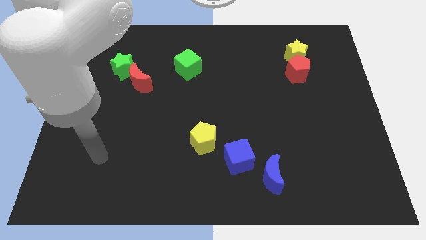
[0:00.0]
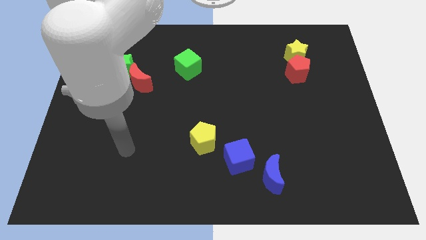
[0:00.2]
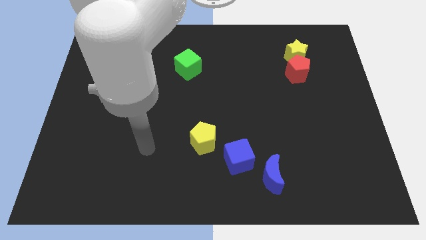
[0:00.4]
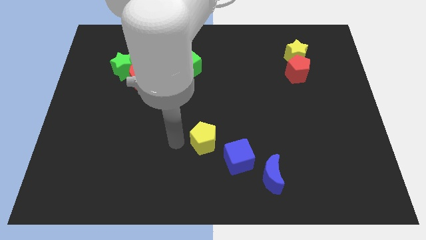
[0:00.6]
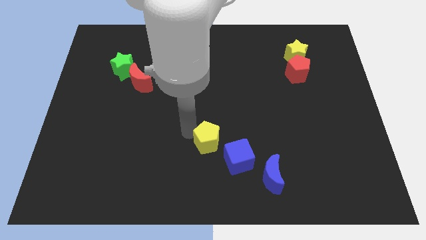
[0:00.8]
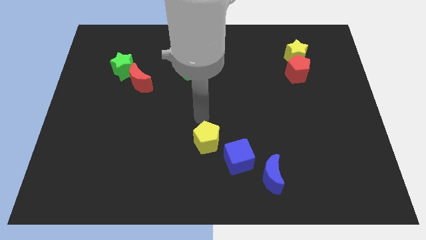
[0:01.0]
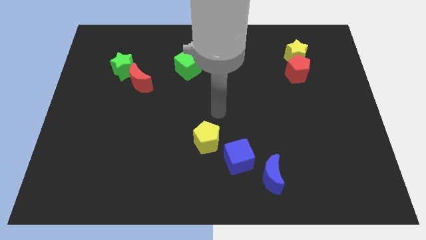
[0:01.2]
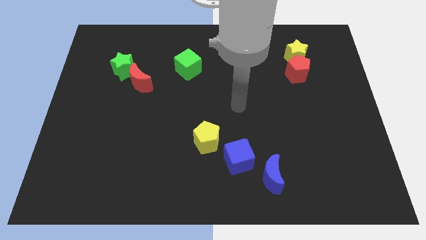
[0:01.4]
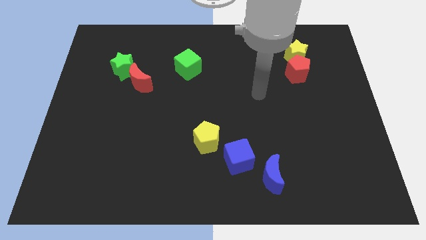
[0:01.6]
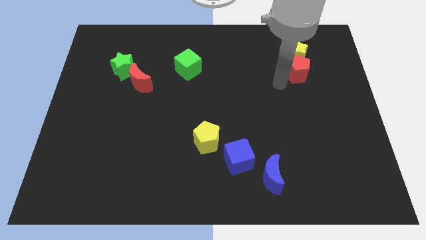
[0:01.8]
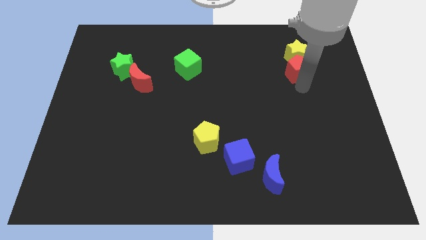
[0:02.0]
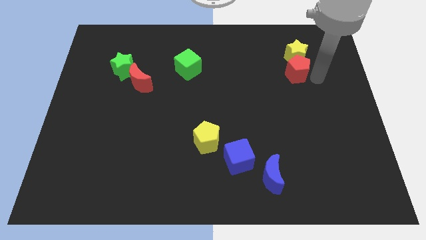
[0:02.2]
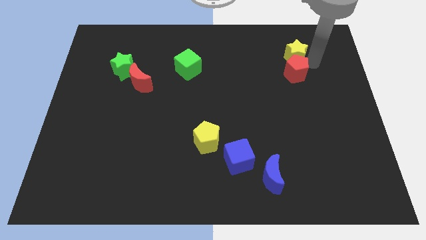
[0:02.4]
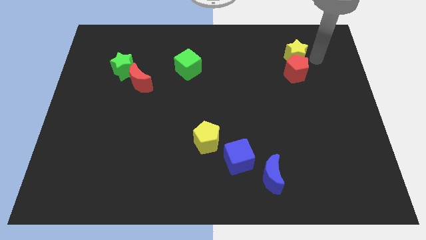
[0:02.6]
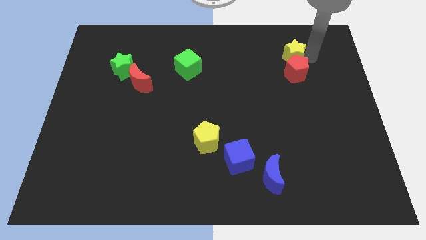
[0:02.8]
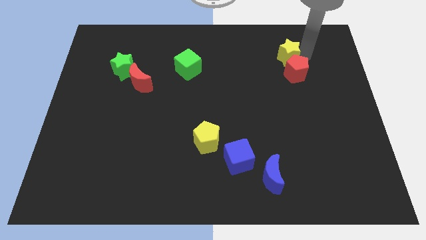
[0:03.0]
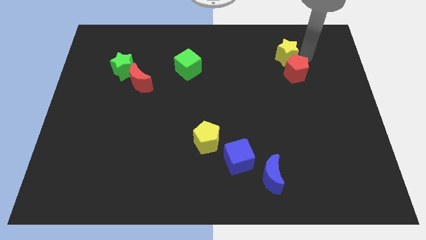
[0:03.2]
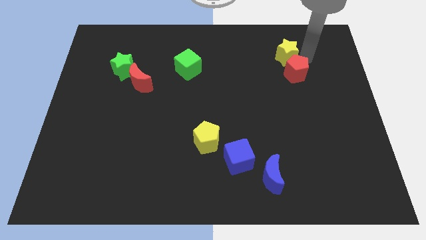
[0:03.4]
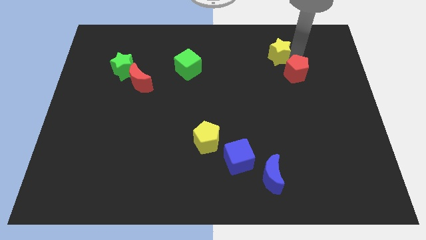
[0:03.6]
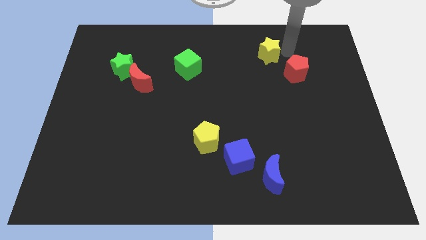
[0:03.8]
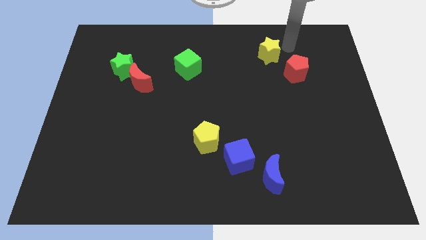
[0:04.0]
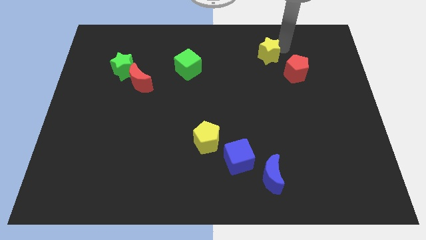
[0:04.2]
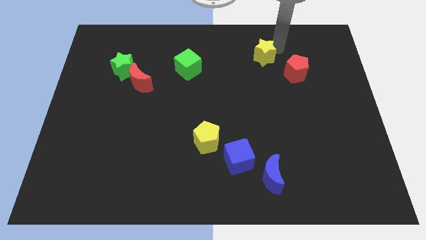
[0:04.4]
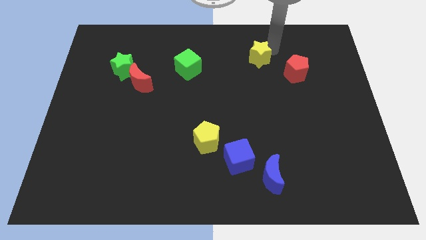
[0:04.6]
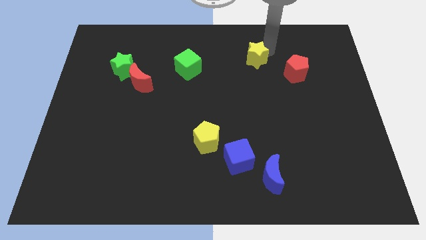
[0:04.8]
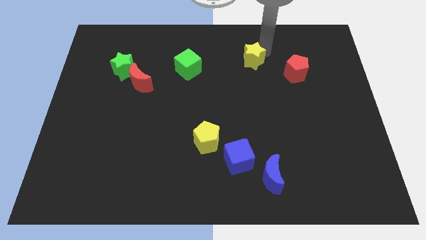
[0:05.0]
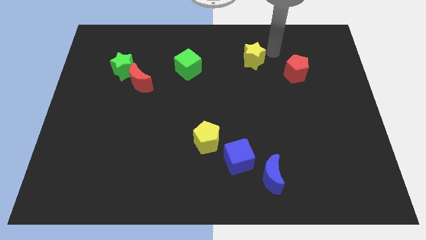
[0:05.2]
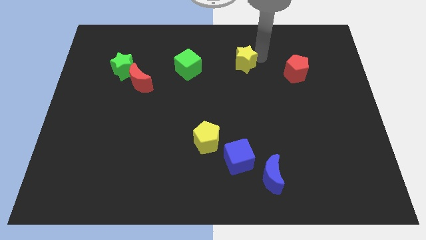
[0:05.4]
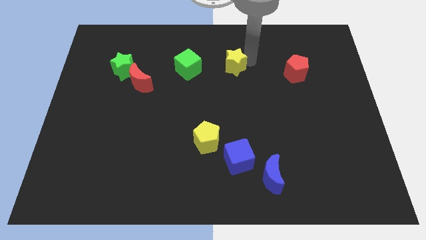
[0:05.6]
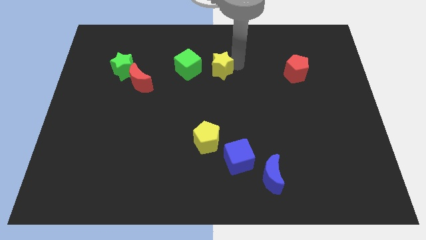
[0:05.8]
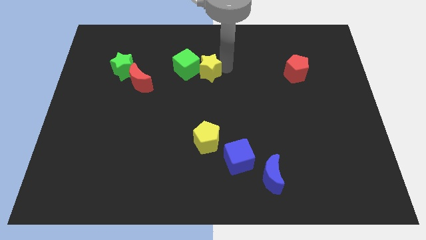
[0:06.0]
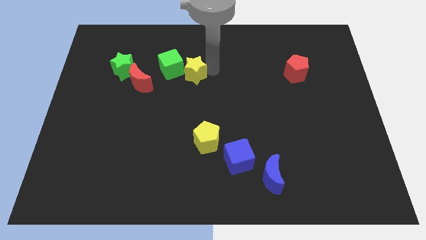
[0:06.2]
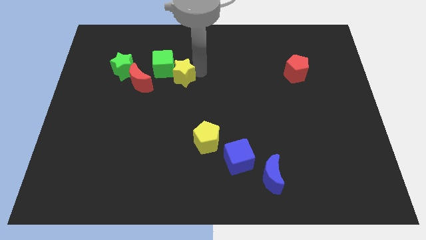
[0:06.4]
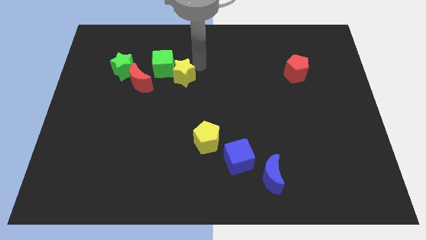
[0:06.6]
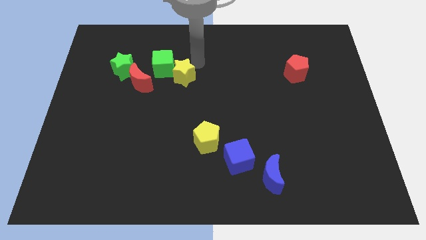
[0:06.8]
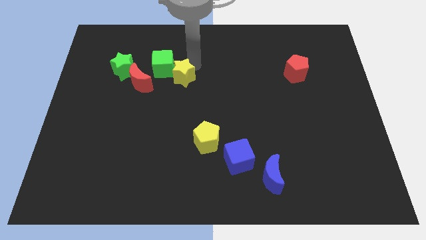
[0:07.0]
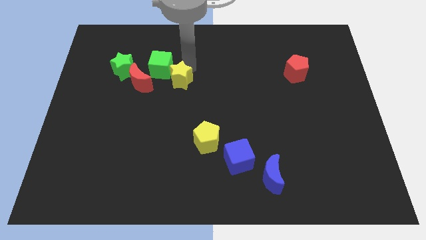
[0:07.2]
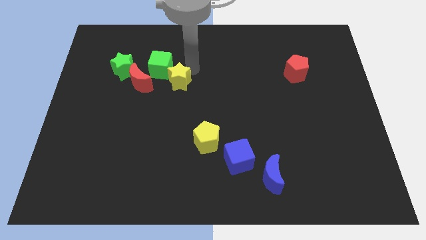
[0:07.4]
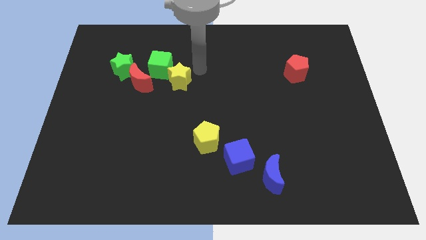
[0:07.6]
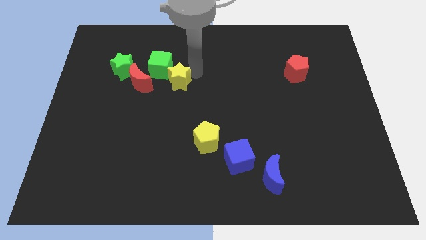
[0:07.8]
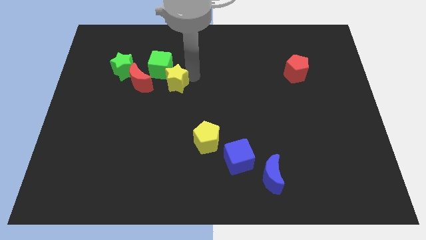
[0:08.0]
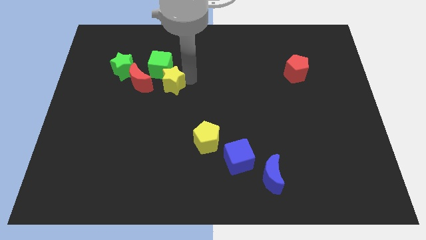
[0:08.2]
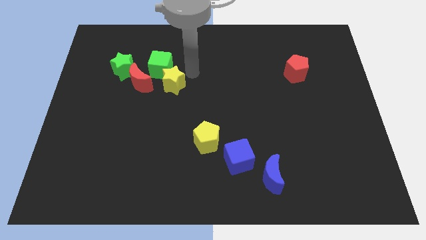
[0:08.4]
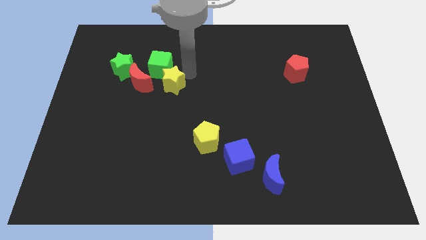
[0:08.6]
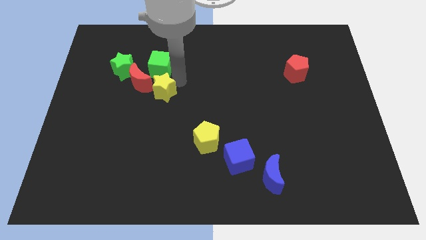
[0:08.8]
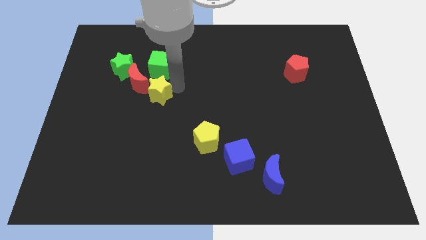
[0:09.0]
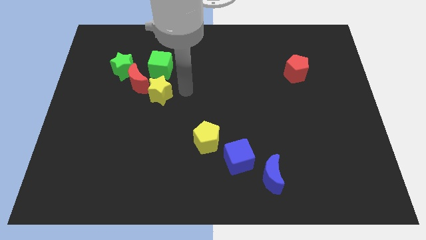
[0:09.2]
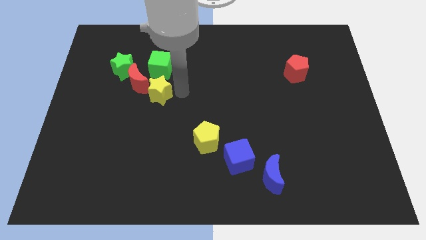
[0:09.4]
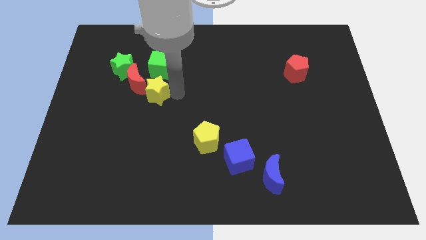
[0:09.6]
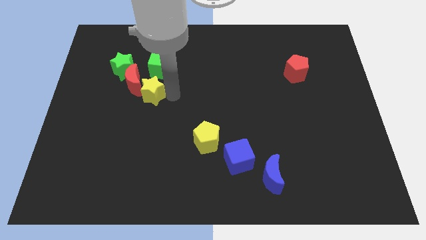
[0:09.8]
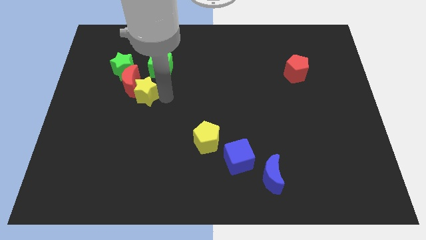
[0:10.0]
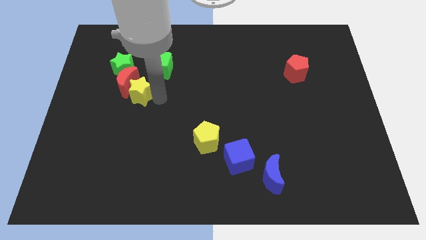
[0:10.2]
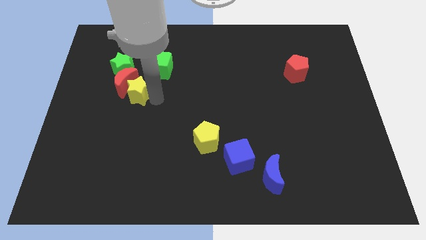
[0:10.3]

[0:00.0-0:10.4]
slide the yellow star below the green star

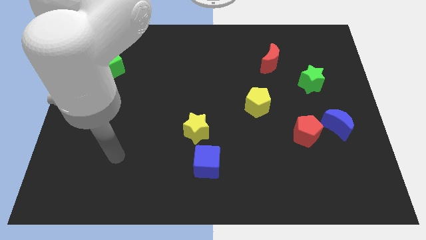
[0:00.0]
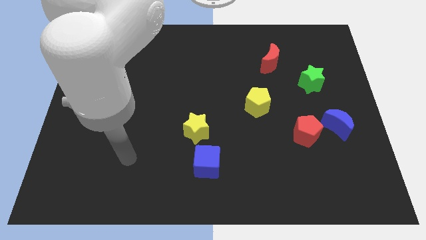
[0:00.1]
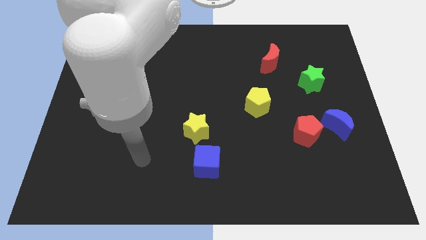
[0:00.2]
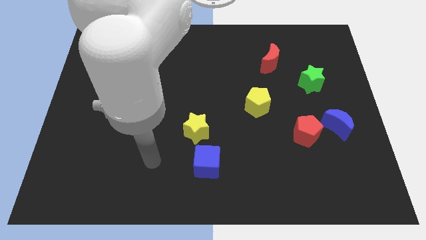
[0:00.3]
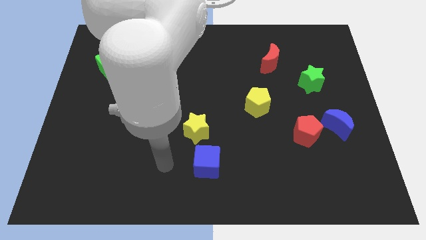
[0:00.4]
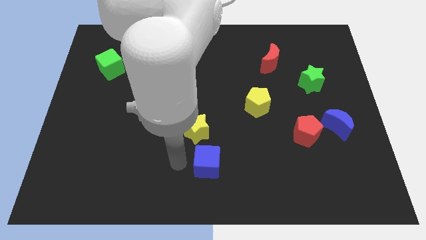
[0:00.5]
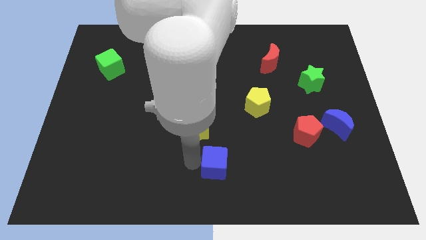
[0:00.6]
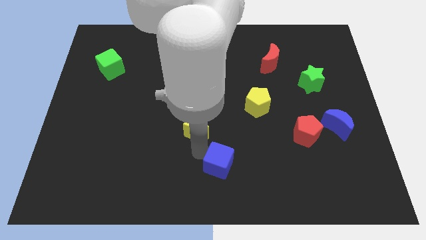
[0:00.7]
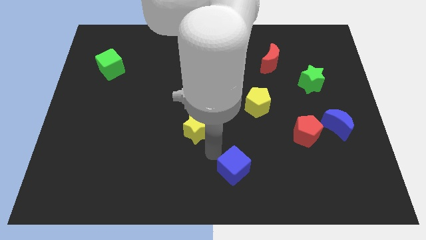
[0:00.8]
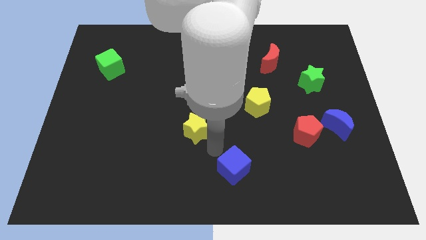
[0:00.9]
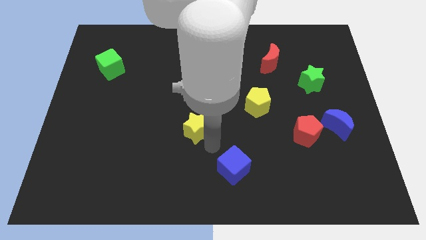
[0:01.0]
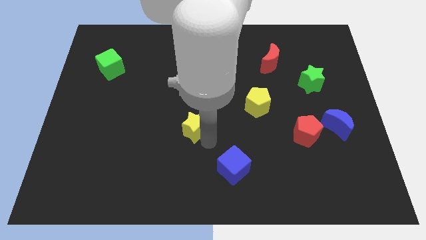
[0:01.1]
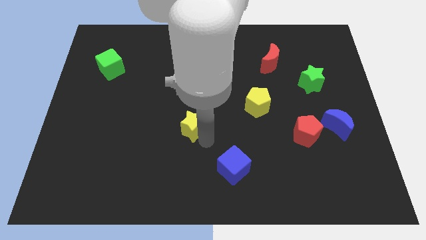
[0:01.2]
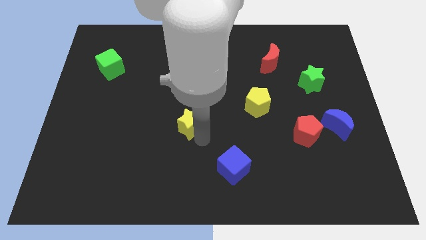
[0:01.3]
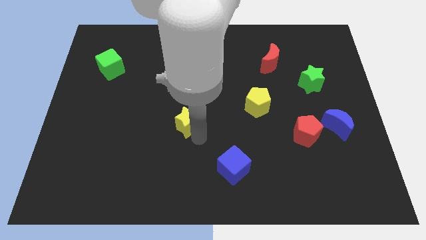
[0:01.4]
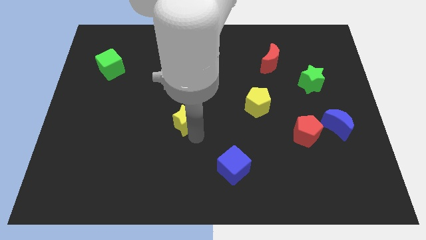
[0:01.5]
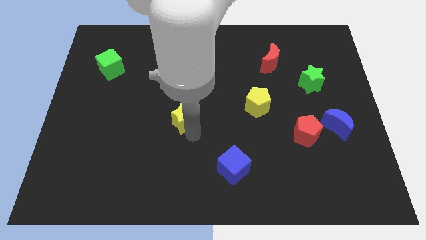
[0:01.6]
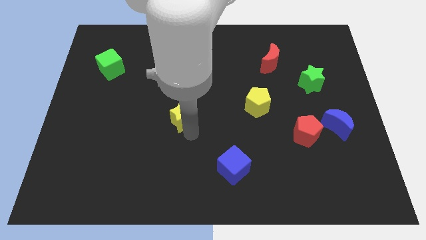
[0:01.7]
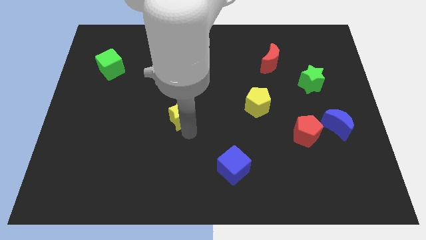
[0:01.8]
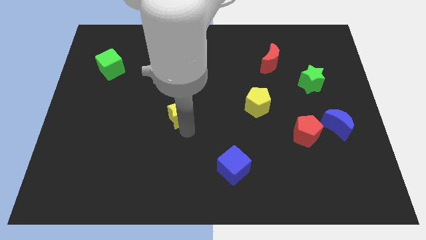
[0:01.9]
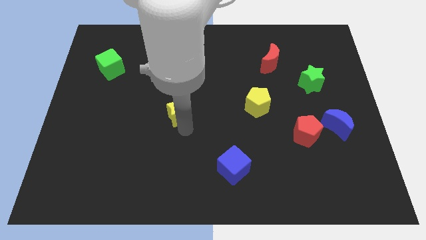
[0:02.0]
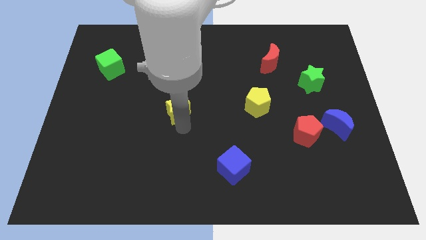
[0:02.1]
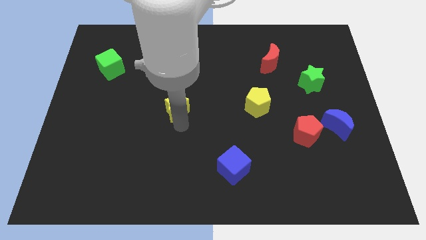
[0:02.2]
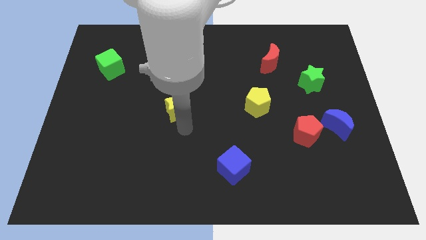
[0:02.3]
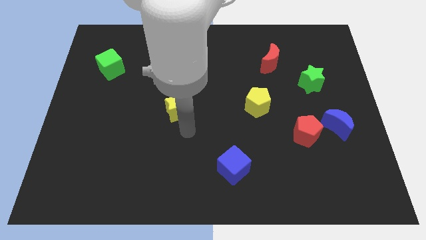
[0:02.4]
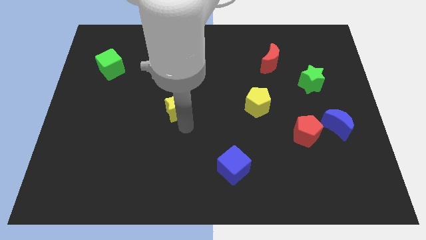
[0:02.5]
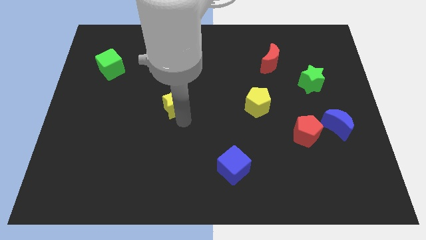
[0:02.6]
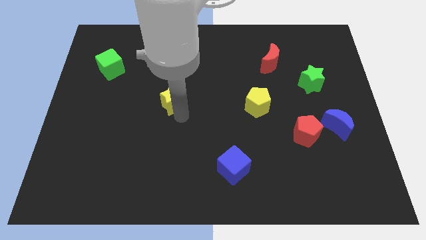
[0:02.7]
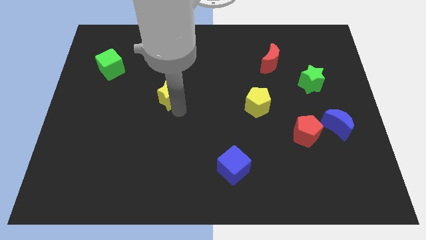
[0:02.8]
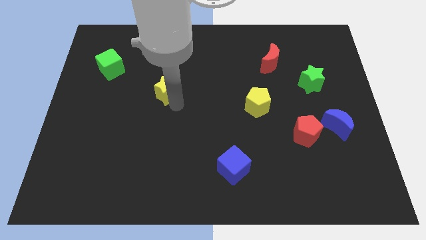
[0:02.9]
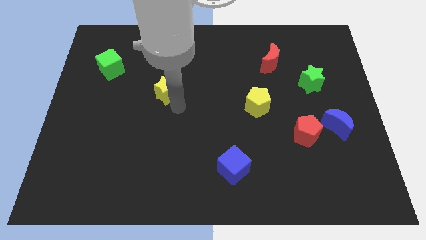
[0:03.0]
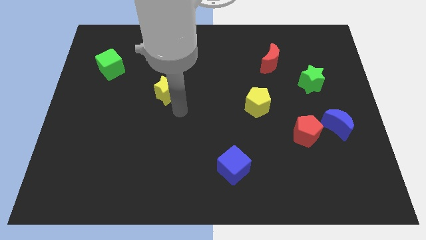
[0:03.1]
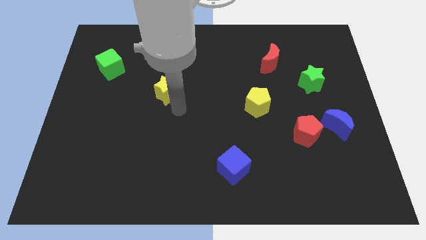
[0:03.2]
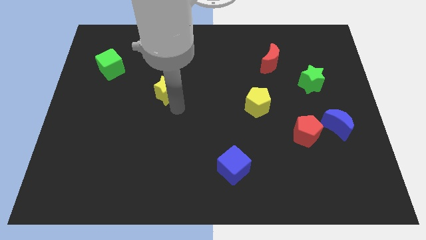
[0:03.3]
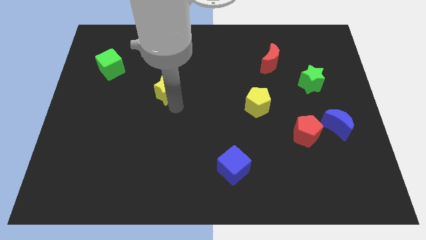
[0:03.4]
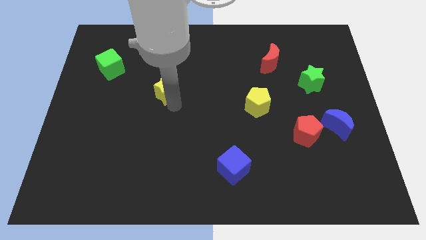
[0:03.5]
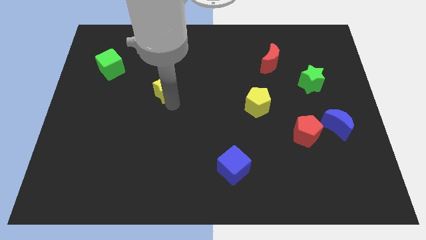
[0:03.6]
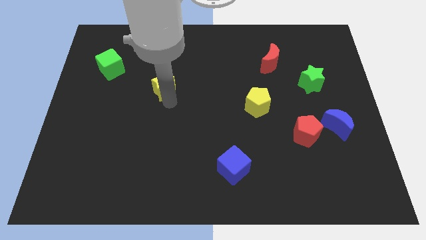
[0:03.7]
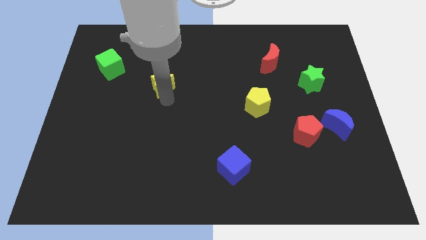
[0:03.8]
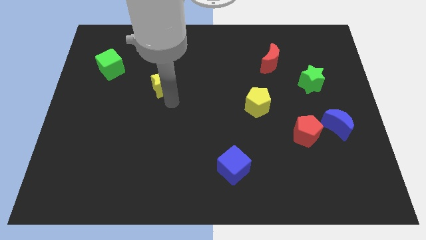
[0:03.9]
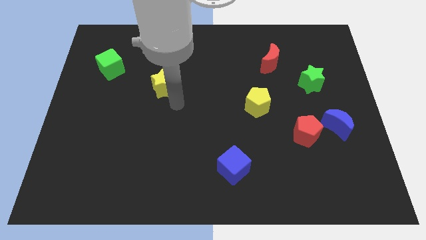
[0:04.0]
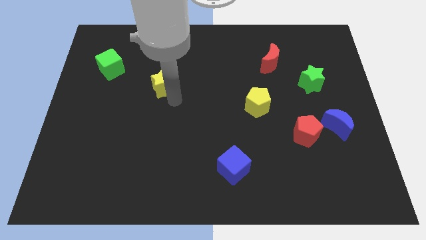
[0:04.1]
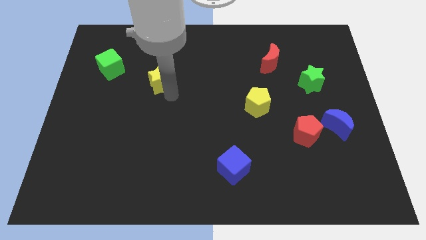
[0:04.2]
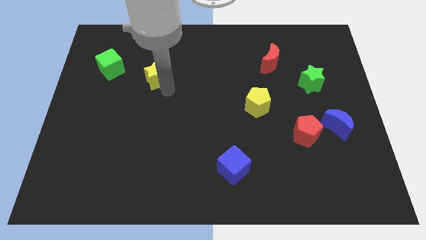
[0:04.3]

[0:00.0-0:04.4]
push the yellow star just right of the green cube
